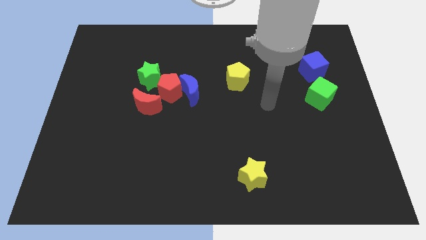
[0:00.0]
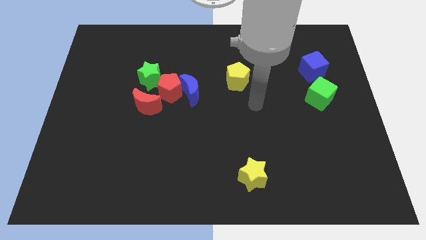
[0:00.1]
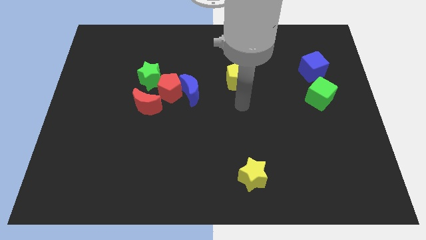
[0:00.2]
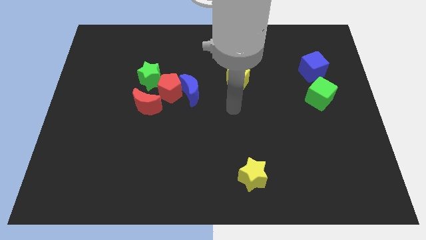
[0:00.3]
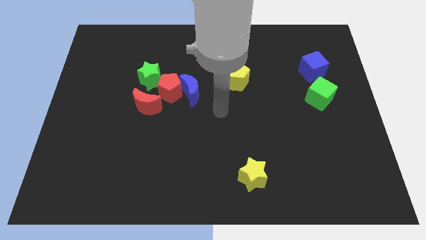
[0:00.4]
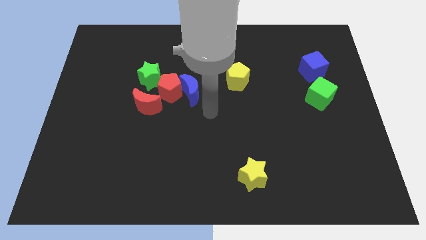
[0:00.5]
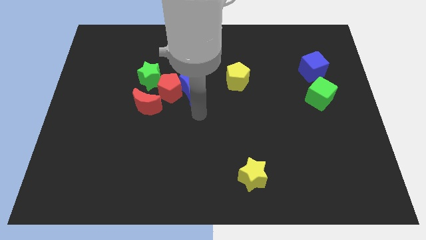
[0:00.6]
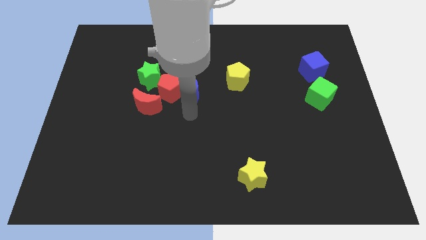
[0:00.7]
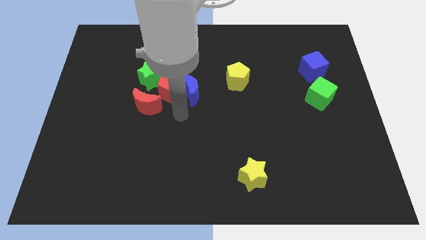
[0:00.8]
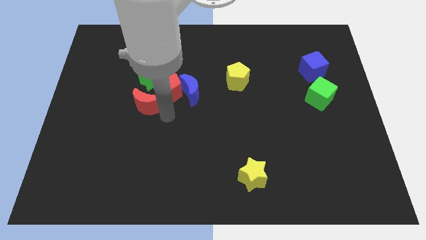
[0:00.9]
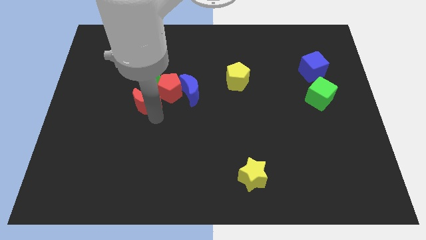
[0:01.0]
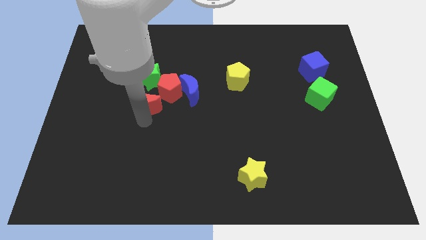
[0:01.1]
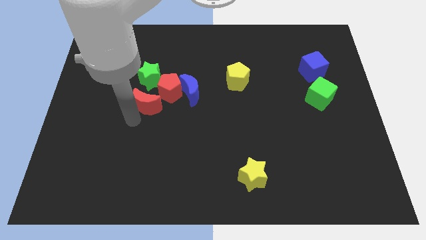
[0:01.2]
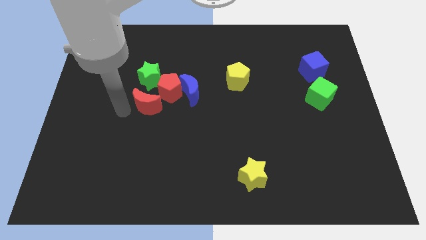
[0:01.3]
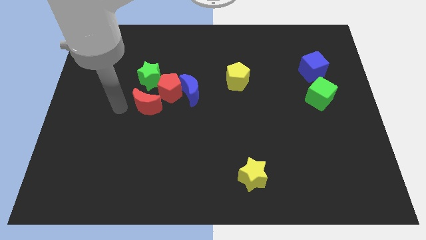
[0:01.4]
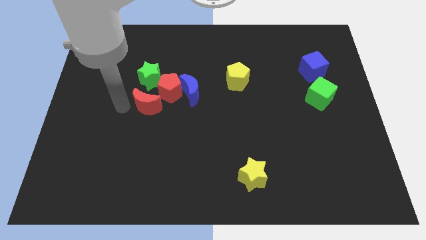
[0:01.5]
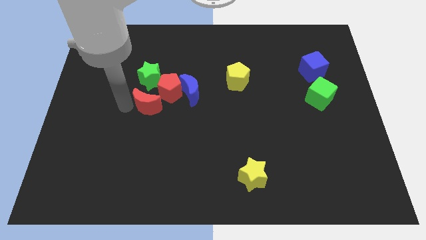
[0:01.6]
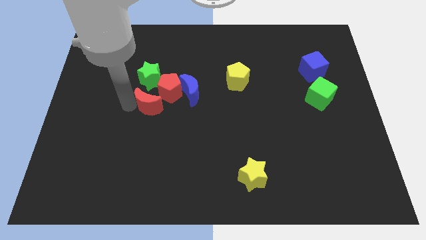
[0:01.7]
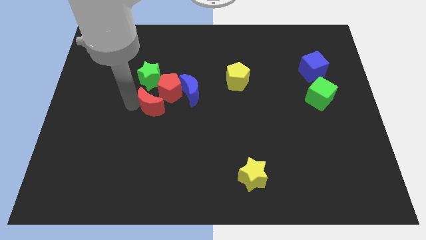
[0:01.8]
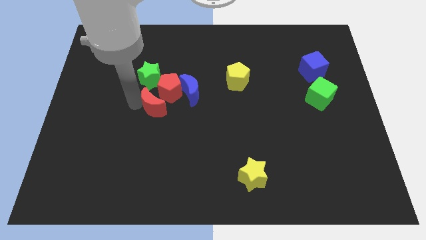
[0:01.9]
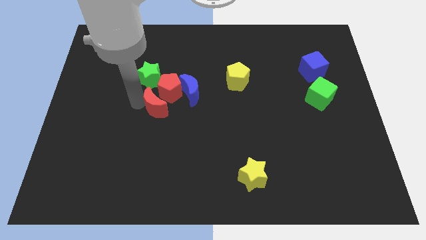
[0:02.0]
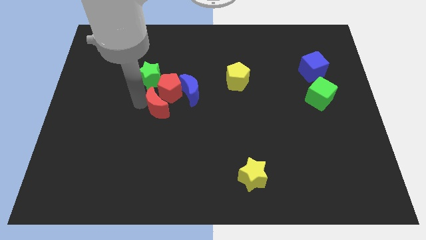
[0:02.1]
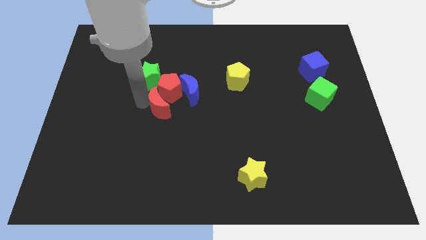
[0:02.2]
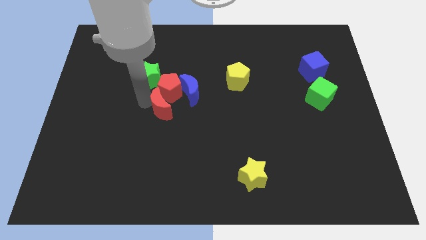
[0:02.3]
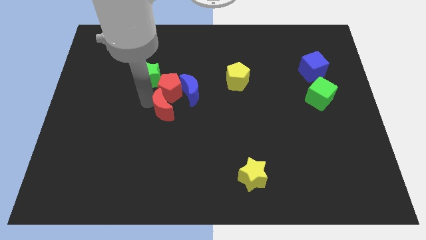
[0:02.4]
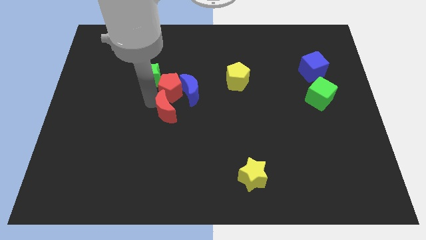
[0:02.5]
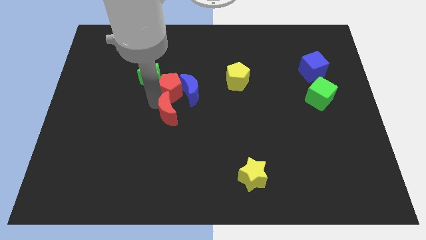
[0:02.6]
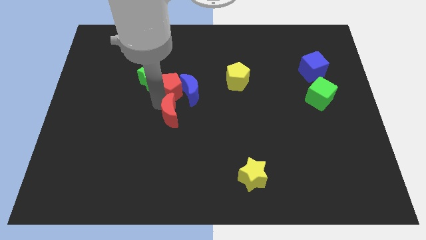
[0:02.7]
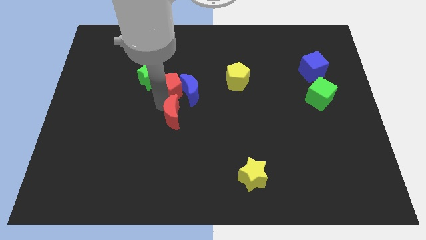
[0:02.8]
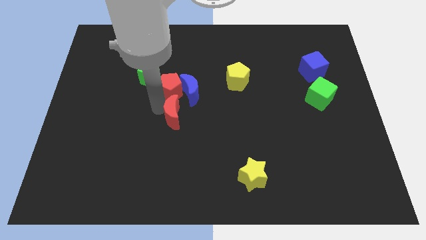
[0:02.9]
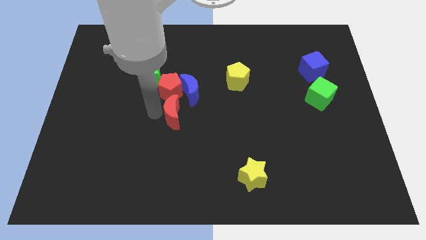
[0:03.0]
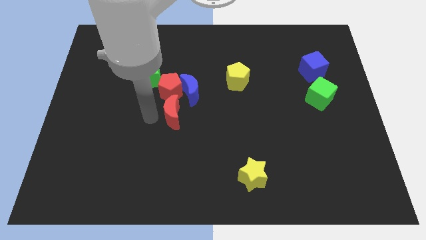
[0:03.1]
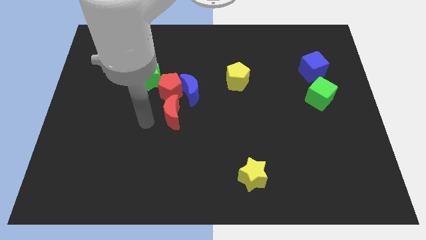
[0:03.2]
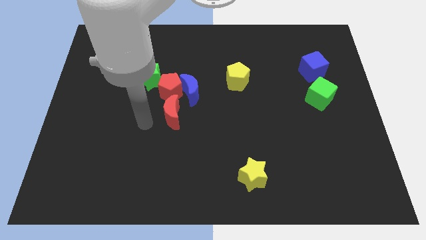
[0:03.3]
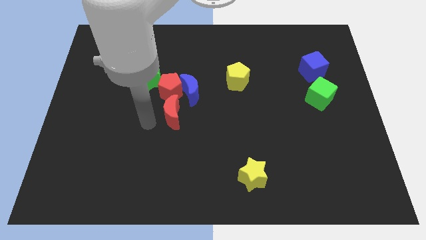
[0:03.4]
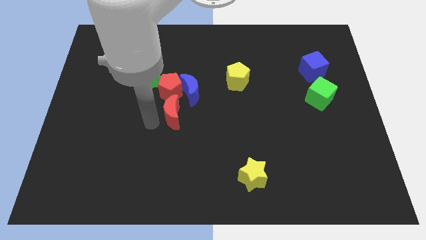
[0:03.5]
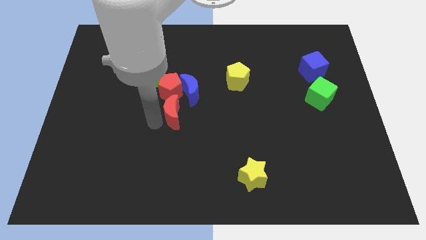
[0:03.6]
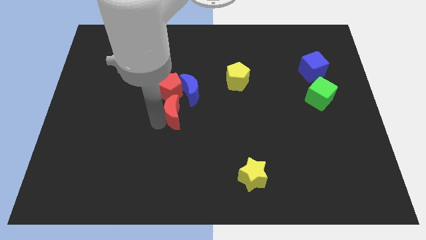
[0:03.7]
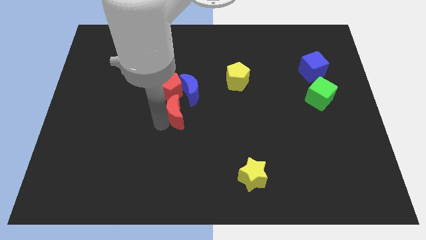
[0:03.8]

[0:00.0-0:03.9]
slightly slide the red moon to the right

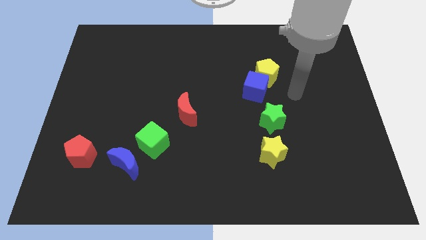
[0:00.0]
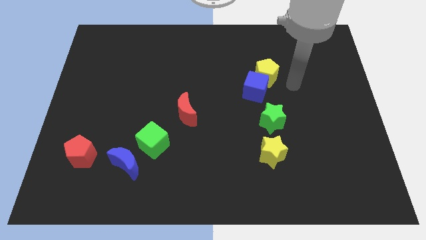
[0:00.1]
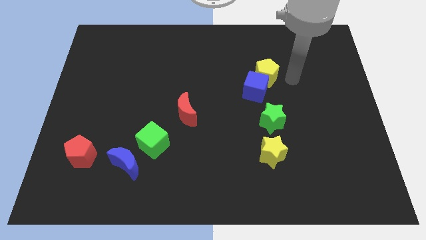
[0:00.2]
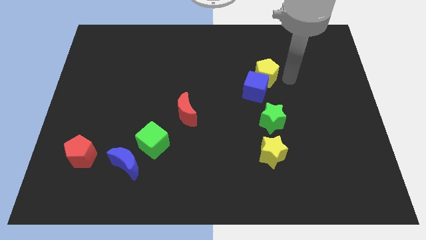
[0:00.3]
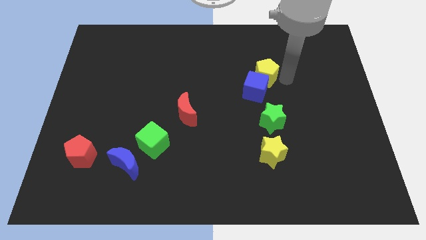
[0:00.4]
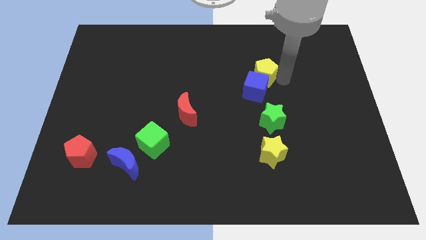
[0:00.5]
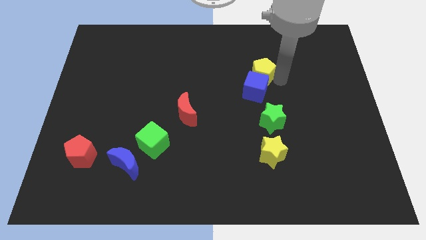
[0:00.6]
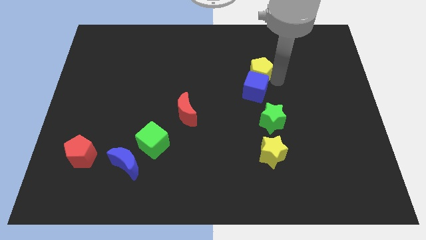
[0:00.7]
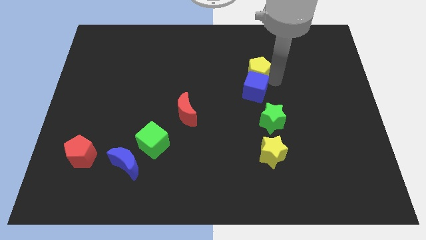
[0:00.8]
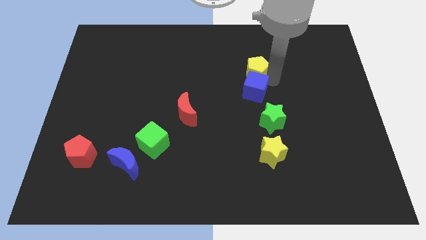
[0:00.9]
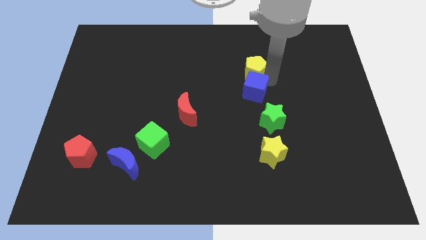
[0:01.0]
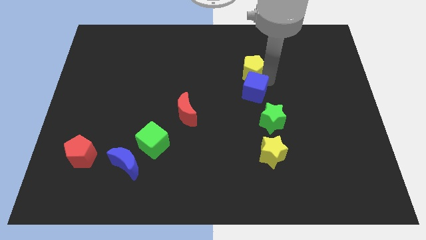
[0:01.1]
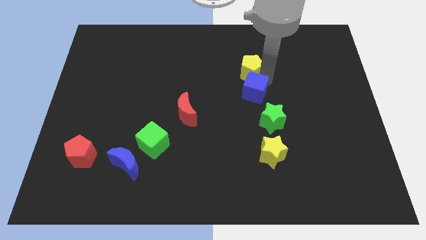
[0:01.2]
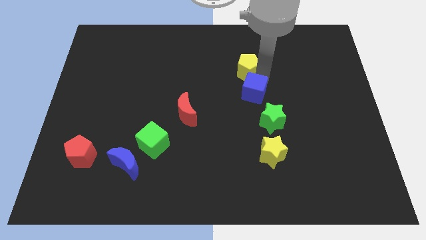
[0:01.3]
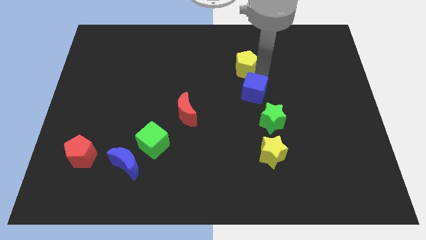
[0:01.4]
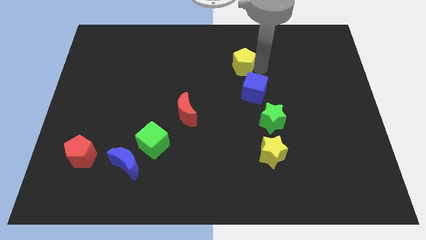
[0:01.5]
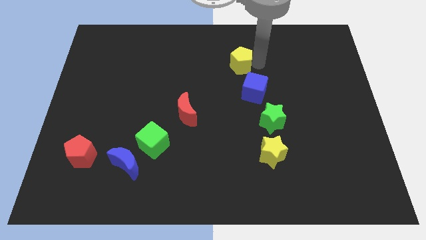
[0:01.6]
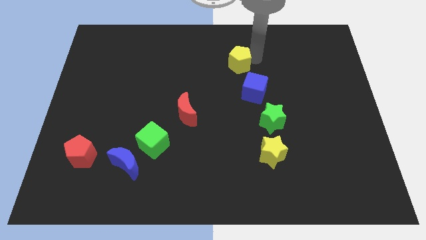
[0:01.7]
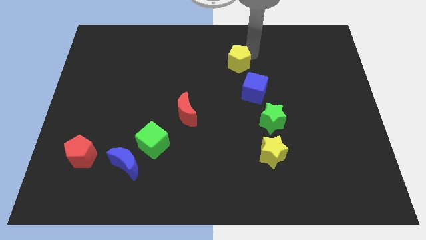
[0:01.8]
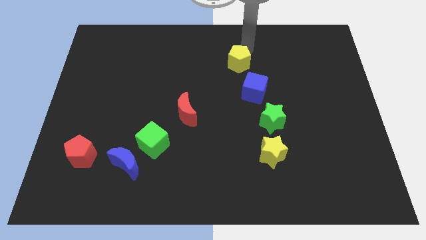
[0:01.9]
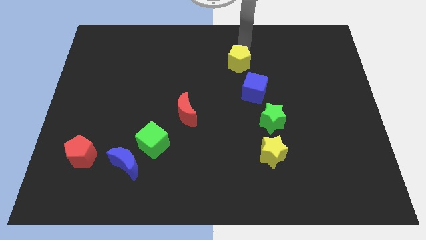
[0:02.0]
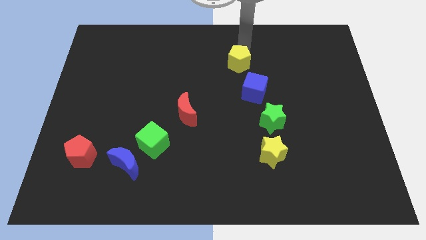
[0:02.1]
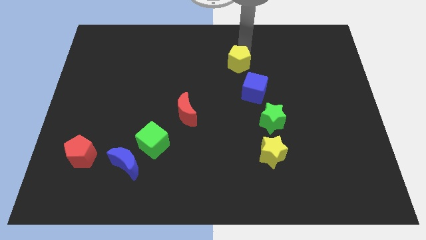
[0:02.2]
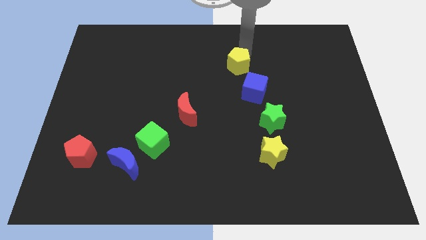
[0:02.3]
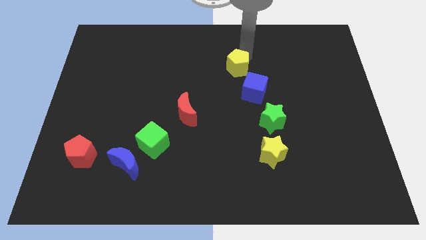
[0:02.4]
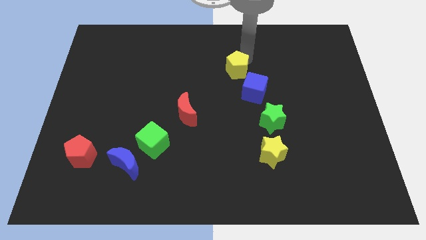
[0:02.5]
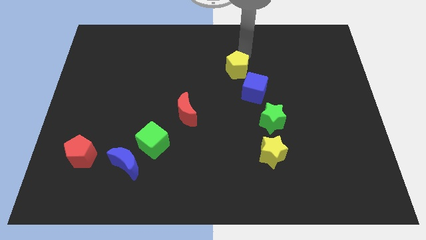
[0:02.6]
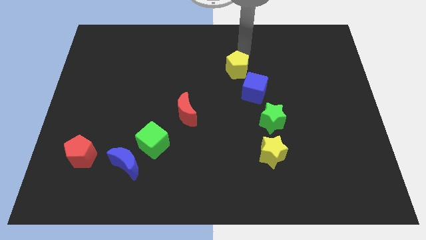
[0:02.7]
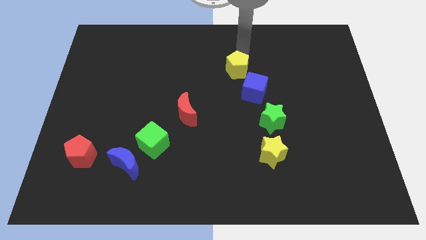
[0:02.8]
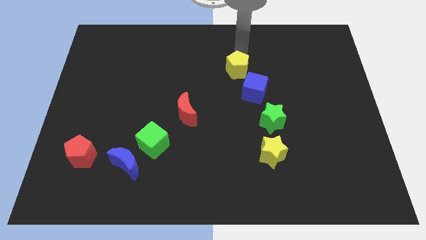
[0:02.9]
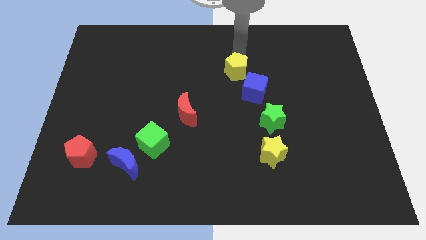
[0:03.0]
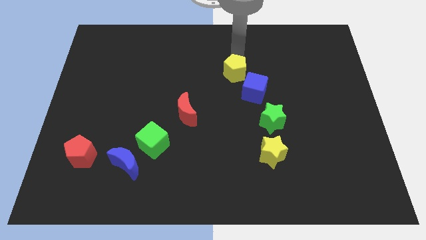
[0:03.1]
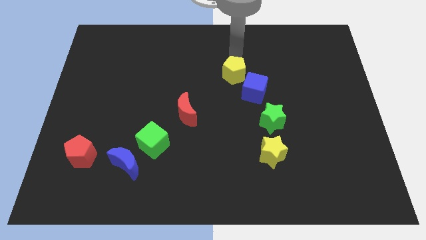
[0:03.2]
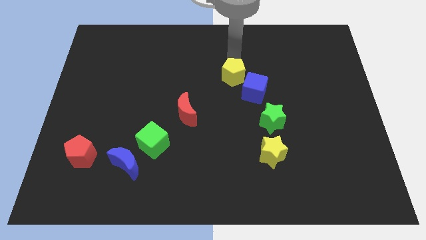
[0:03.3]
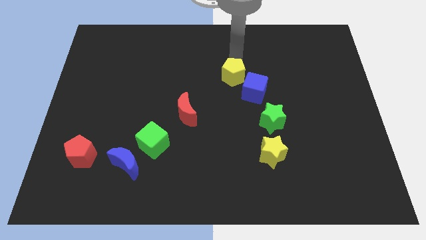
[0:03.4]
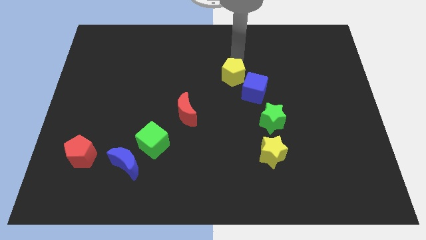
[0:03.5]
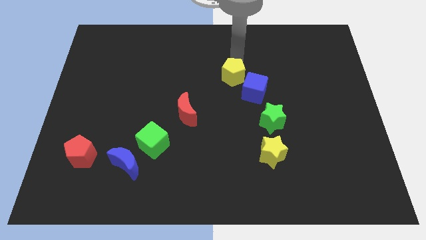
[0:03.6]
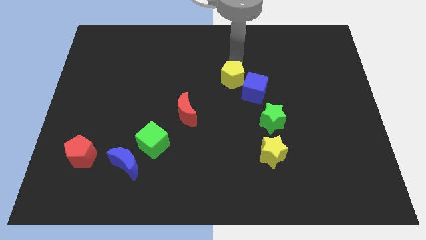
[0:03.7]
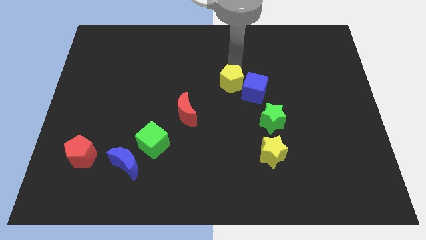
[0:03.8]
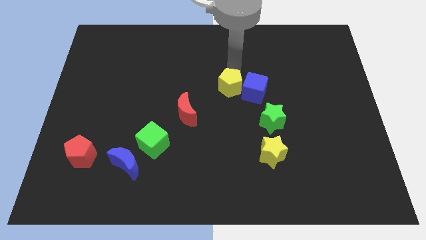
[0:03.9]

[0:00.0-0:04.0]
move the yellow pentagon downwards and left diagonally slightly
